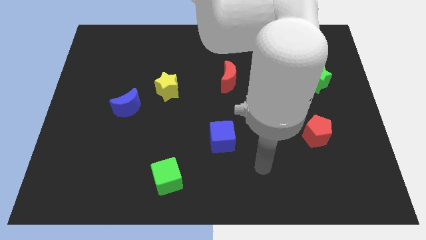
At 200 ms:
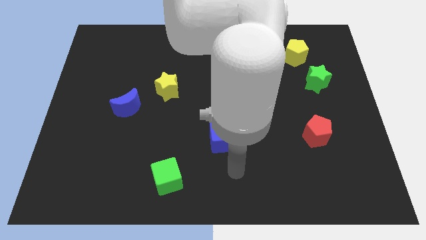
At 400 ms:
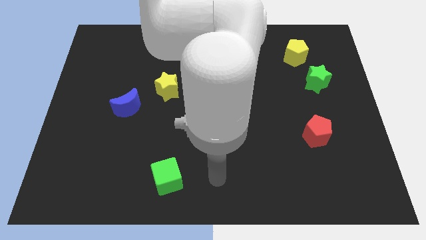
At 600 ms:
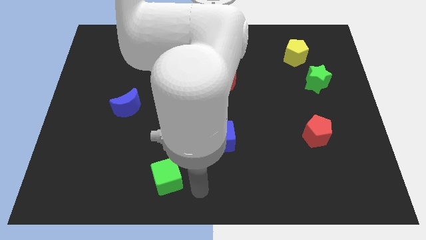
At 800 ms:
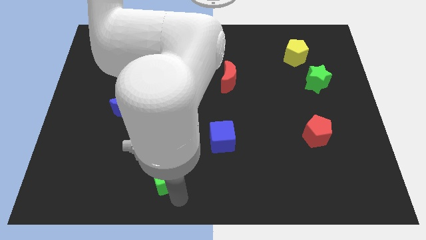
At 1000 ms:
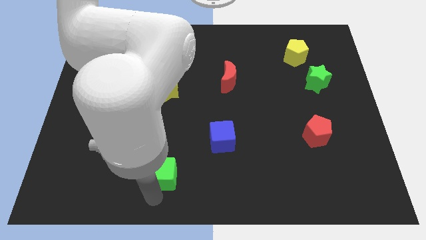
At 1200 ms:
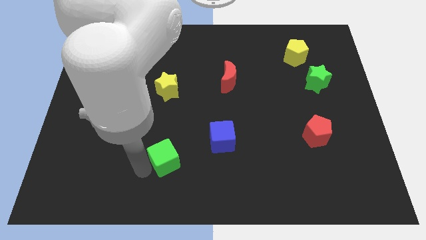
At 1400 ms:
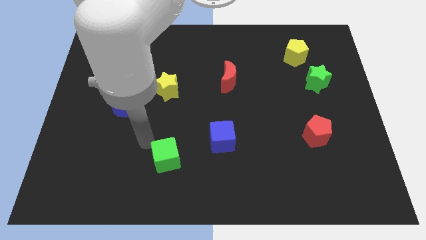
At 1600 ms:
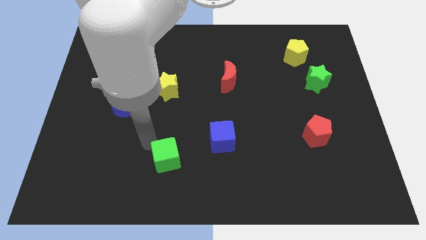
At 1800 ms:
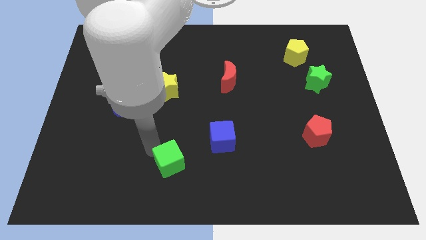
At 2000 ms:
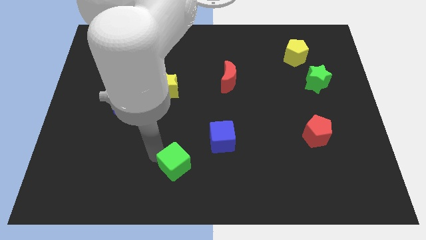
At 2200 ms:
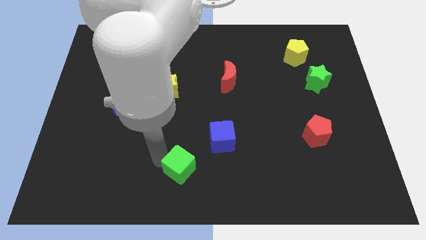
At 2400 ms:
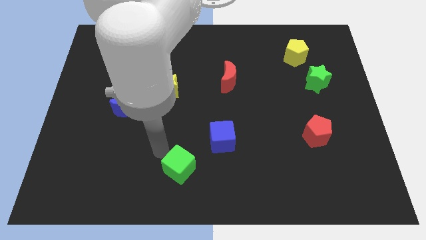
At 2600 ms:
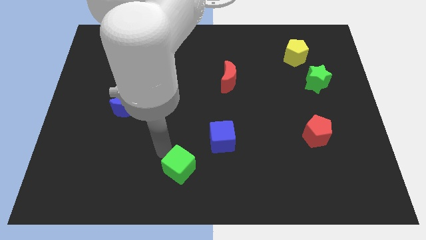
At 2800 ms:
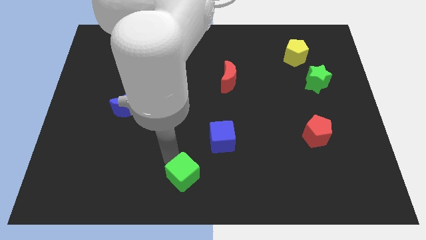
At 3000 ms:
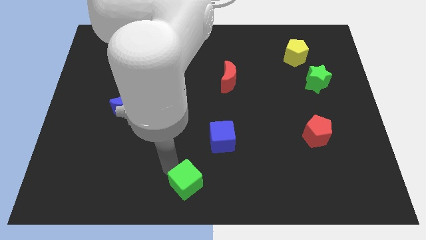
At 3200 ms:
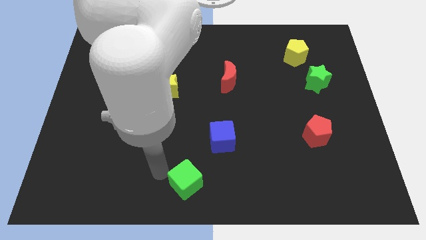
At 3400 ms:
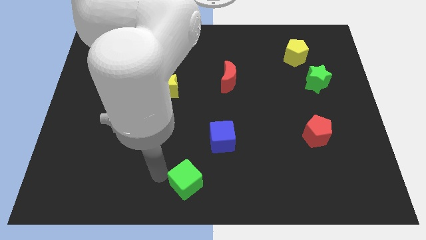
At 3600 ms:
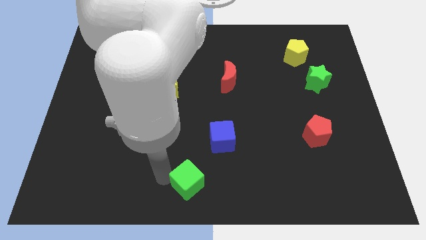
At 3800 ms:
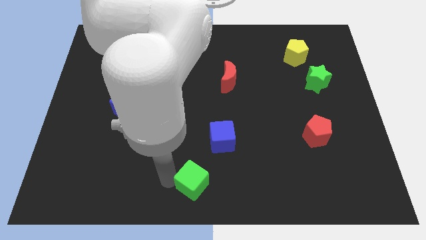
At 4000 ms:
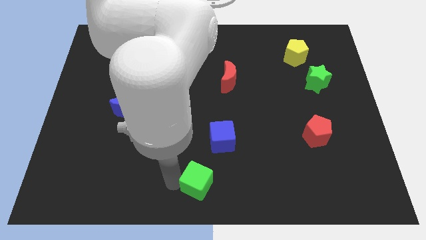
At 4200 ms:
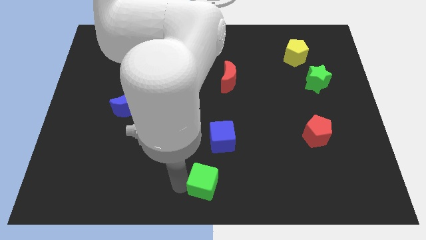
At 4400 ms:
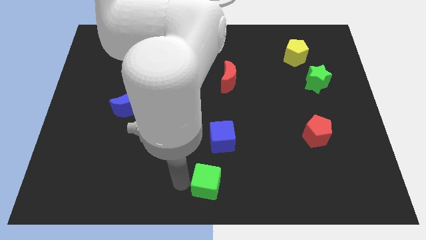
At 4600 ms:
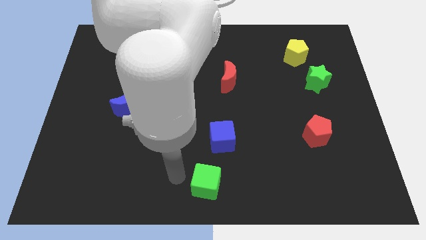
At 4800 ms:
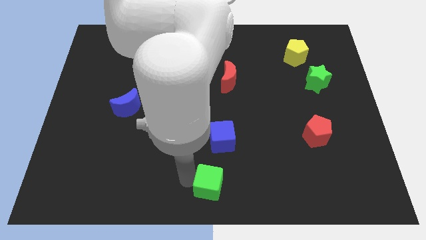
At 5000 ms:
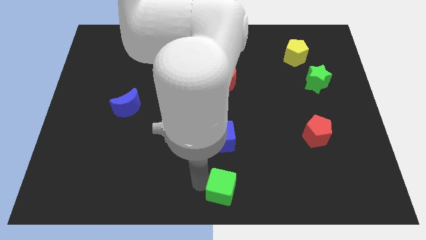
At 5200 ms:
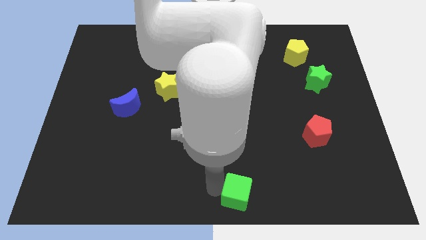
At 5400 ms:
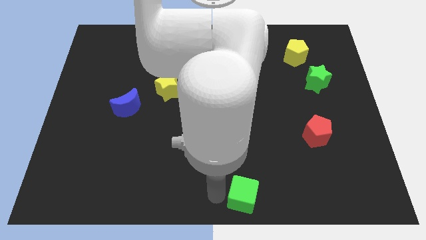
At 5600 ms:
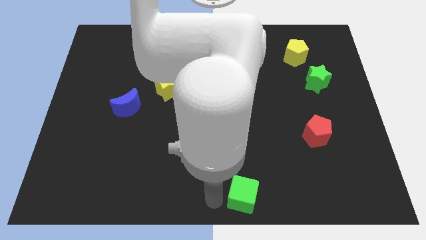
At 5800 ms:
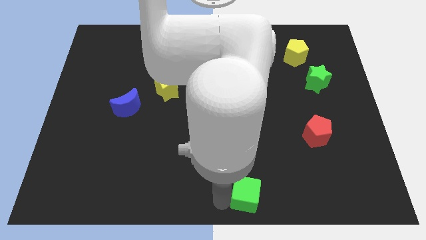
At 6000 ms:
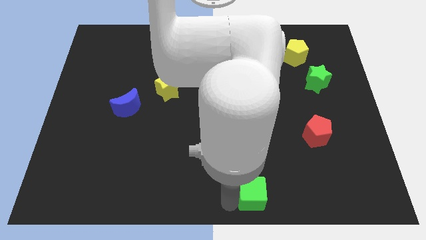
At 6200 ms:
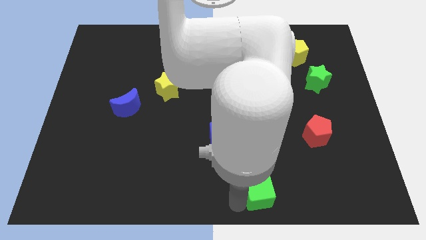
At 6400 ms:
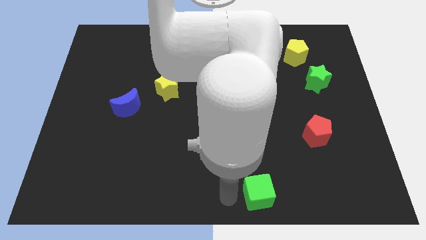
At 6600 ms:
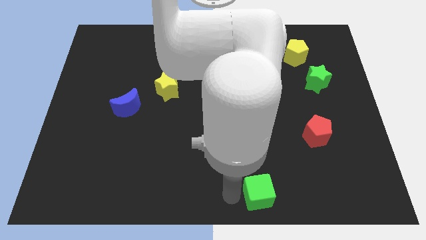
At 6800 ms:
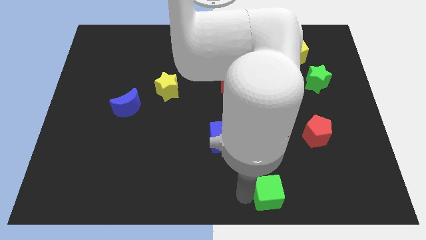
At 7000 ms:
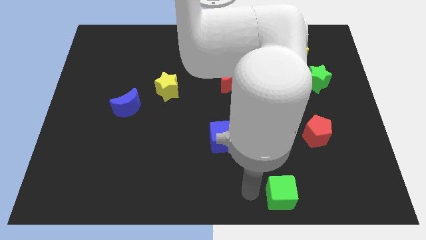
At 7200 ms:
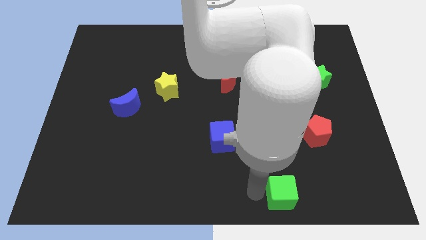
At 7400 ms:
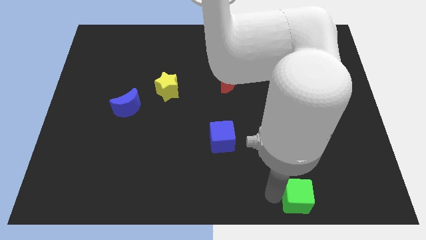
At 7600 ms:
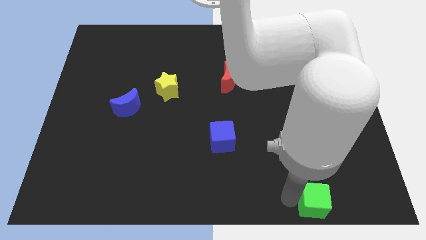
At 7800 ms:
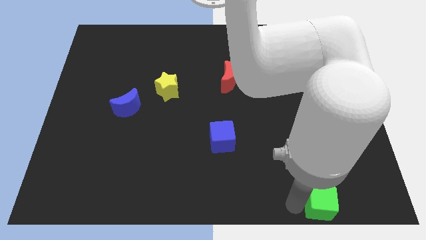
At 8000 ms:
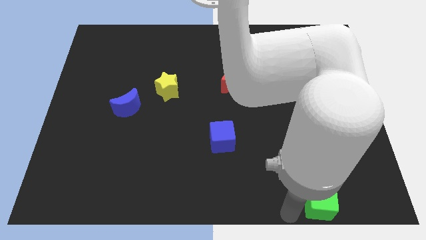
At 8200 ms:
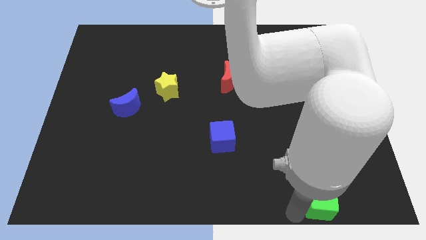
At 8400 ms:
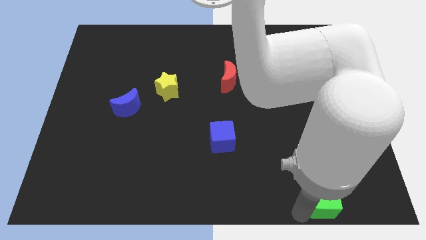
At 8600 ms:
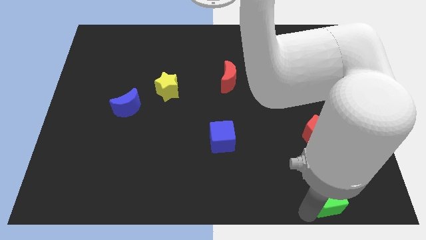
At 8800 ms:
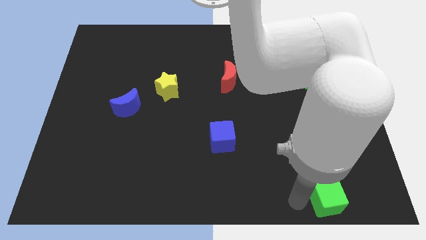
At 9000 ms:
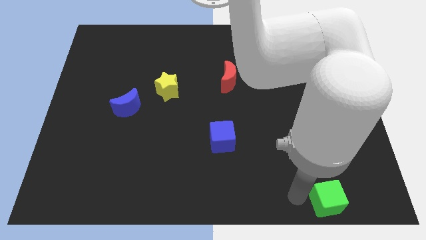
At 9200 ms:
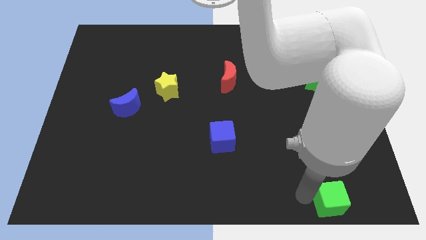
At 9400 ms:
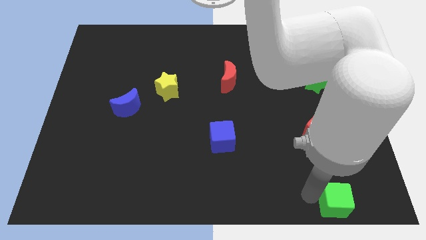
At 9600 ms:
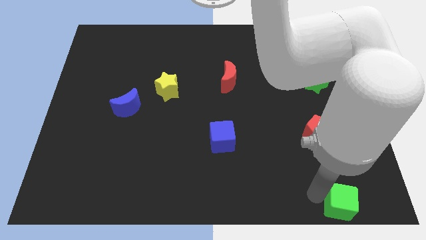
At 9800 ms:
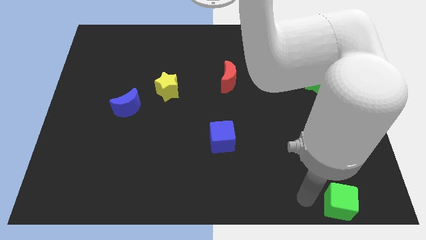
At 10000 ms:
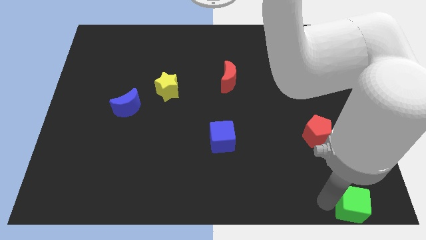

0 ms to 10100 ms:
put the green cube to the lower right corner

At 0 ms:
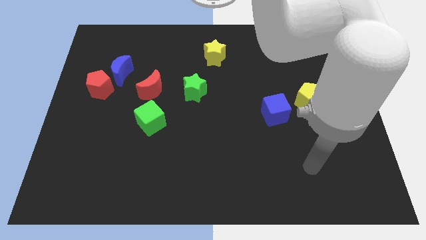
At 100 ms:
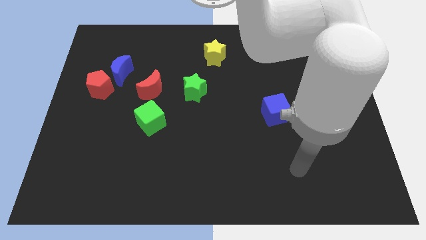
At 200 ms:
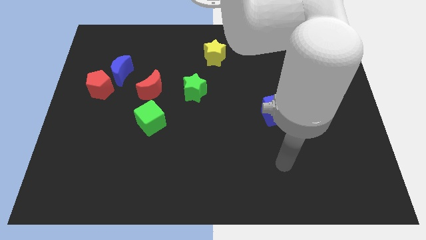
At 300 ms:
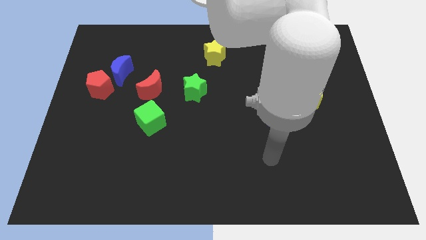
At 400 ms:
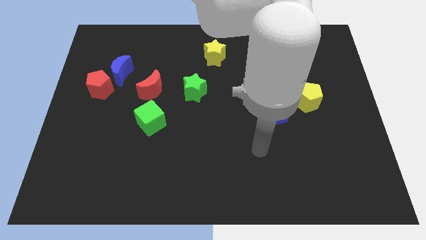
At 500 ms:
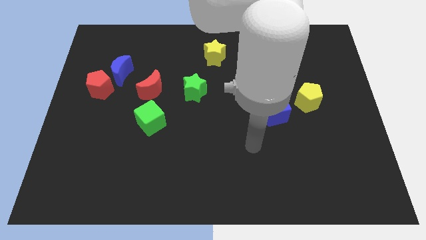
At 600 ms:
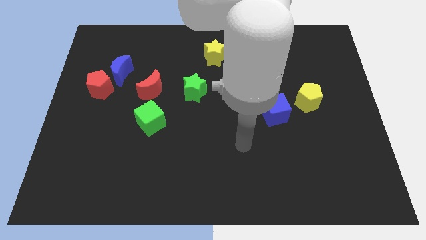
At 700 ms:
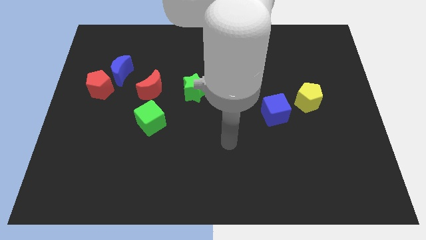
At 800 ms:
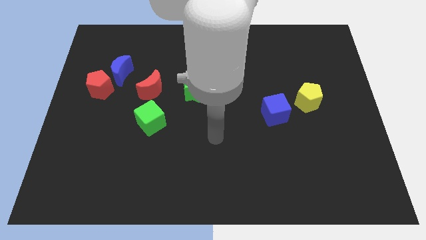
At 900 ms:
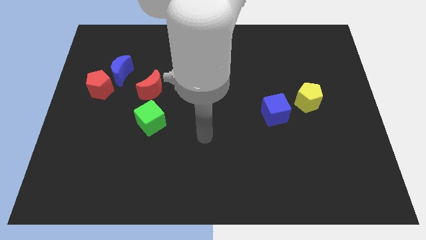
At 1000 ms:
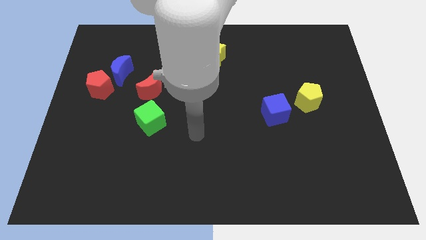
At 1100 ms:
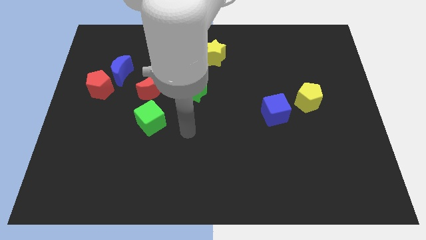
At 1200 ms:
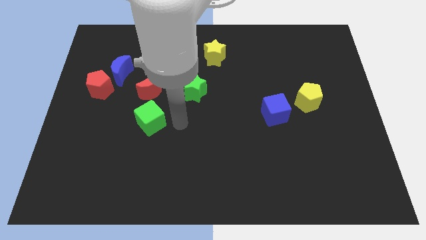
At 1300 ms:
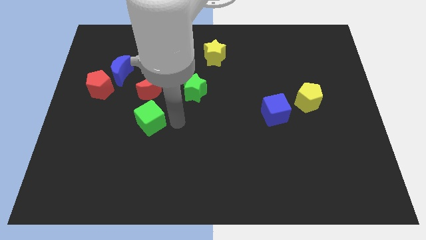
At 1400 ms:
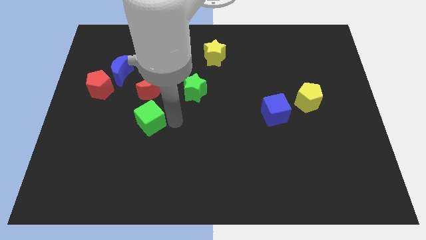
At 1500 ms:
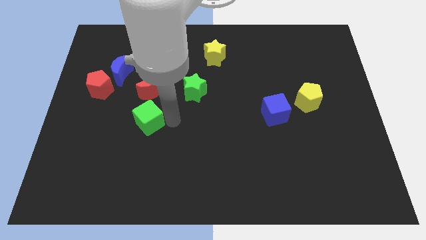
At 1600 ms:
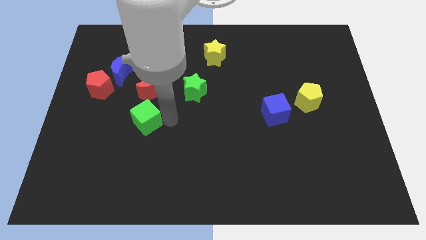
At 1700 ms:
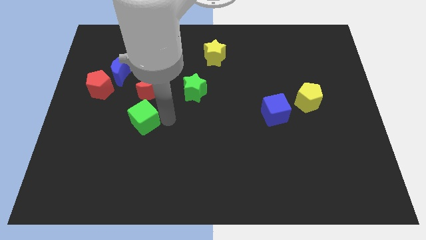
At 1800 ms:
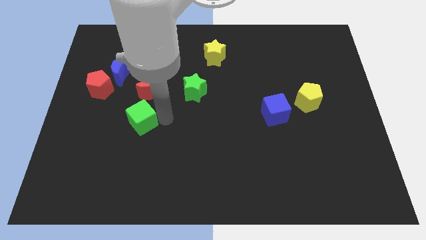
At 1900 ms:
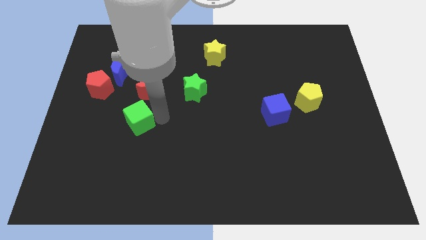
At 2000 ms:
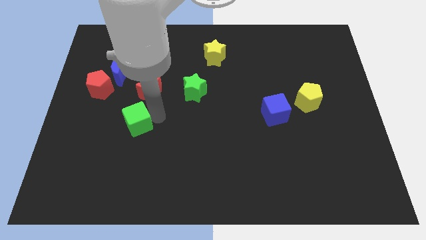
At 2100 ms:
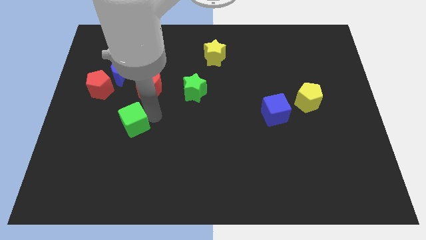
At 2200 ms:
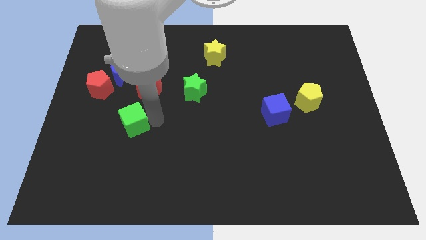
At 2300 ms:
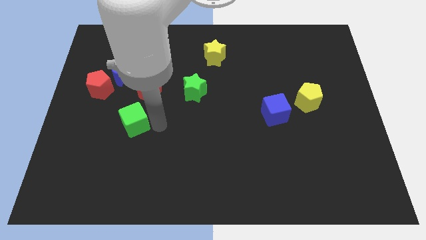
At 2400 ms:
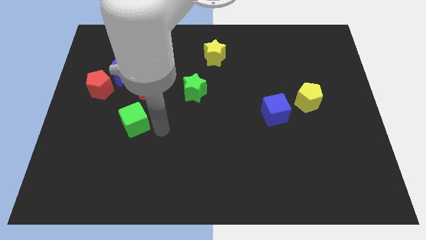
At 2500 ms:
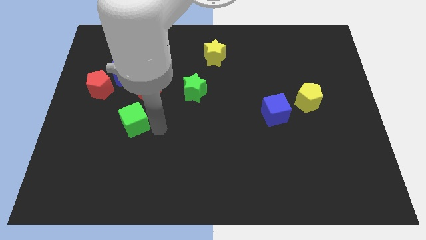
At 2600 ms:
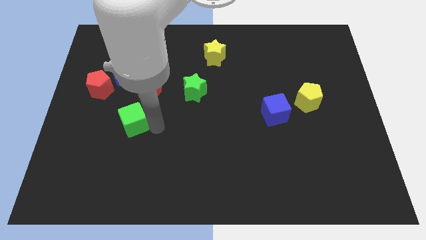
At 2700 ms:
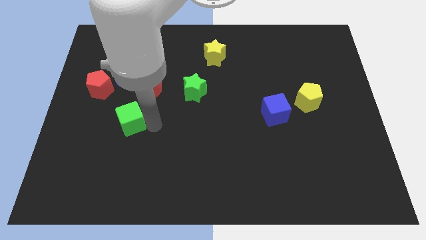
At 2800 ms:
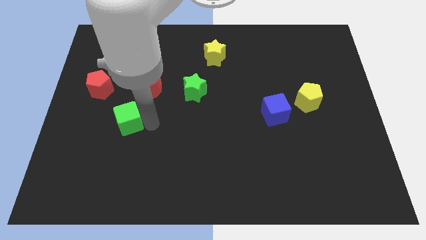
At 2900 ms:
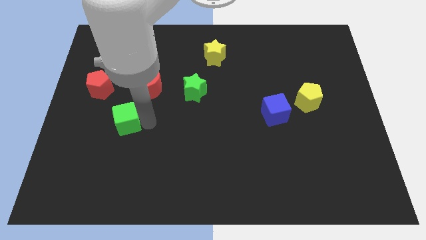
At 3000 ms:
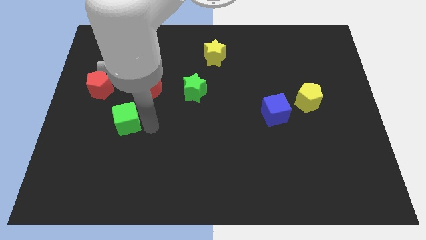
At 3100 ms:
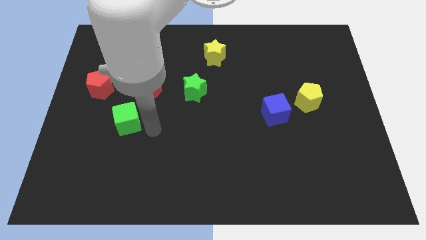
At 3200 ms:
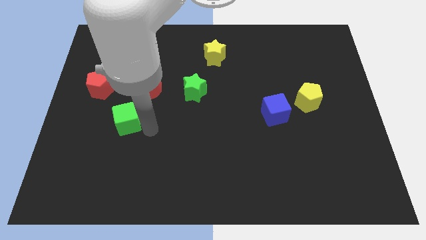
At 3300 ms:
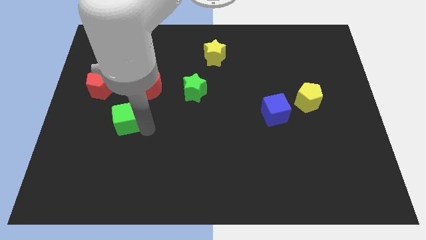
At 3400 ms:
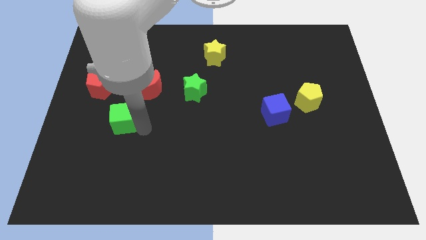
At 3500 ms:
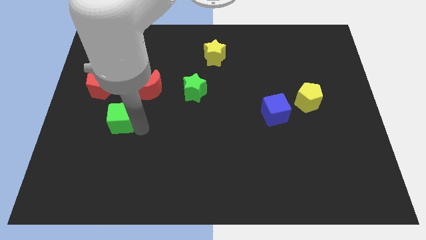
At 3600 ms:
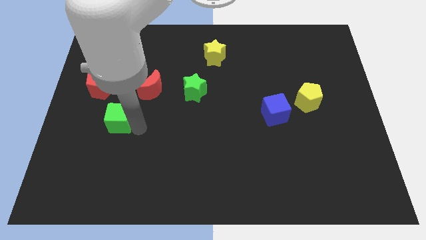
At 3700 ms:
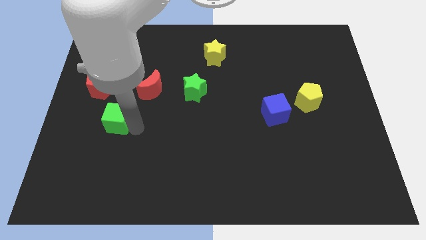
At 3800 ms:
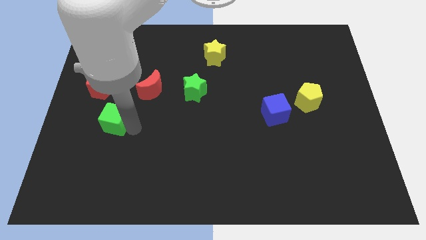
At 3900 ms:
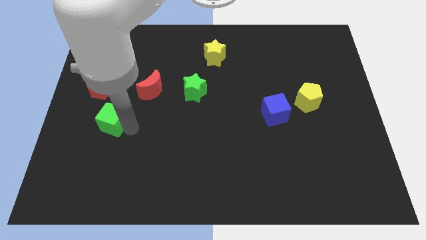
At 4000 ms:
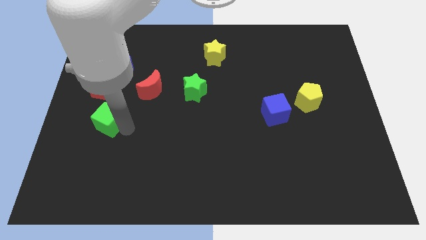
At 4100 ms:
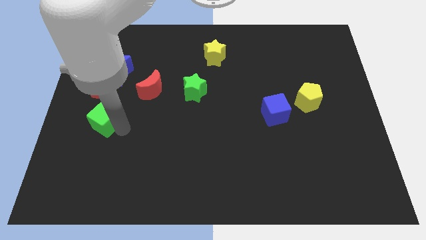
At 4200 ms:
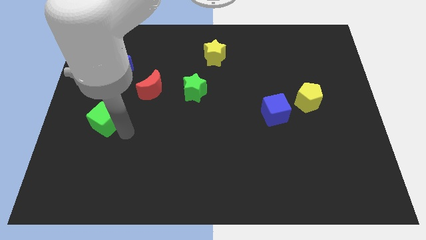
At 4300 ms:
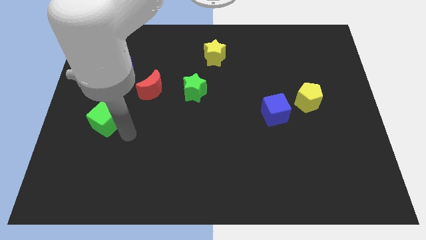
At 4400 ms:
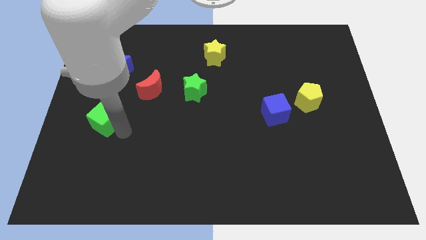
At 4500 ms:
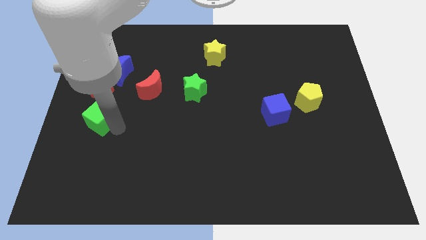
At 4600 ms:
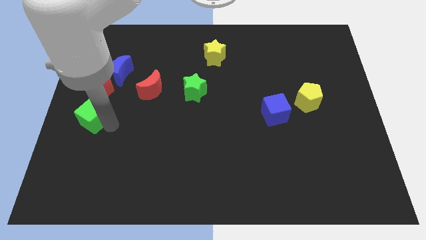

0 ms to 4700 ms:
move the green cube to the center left
